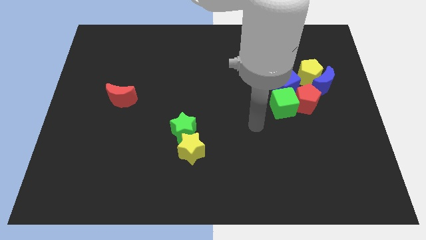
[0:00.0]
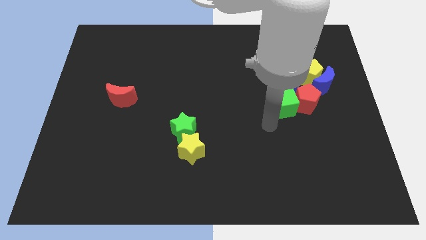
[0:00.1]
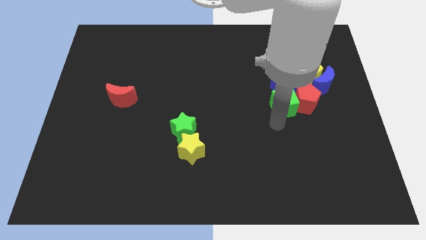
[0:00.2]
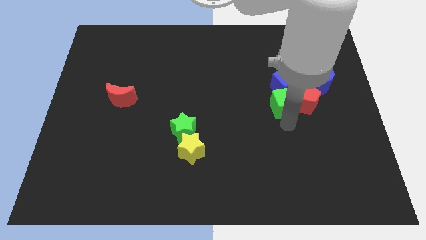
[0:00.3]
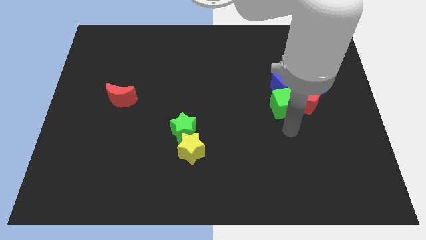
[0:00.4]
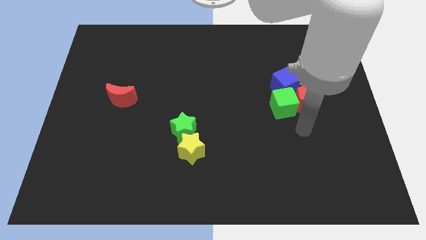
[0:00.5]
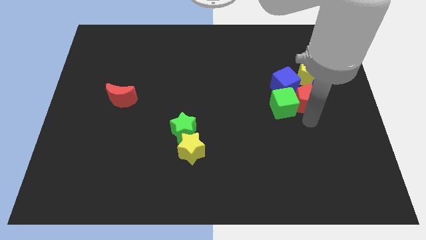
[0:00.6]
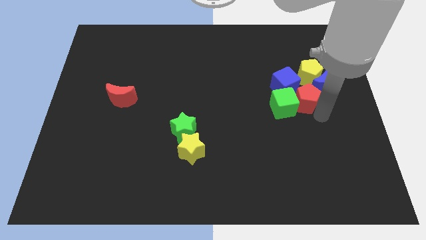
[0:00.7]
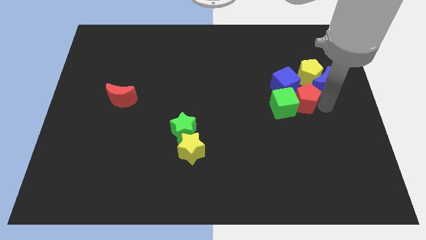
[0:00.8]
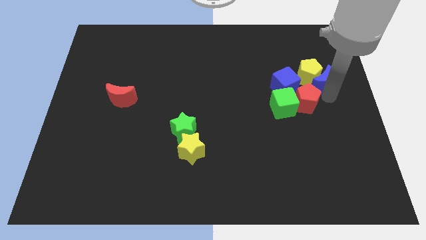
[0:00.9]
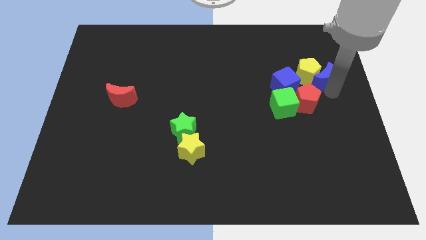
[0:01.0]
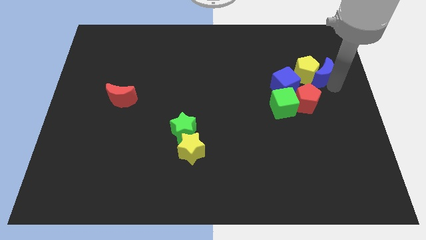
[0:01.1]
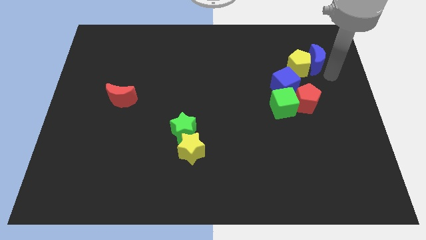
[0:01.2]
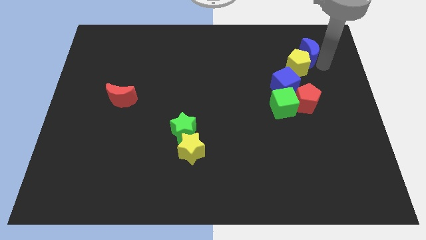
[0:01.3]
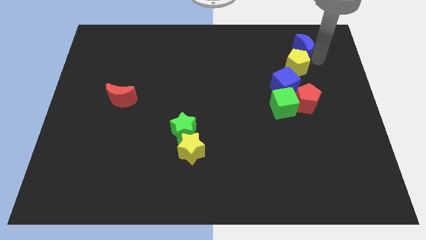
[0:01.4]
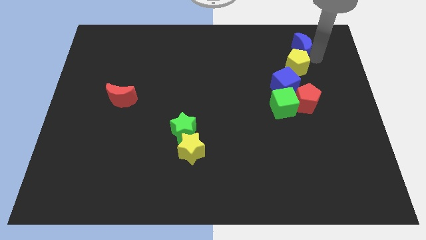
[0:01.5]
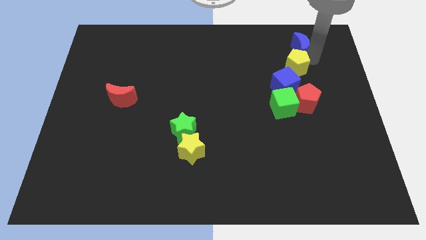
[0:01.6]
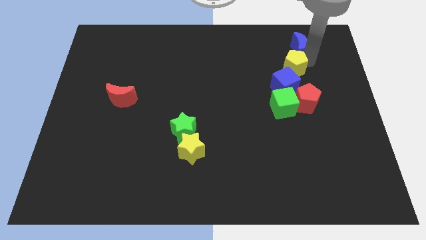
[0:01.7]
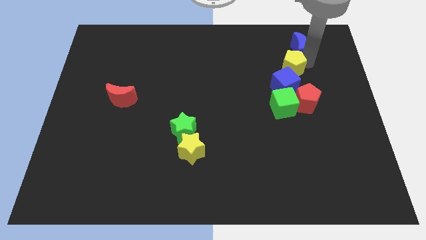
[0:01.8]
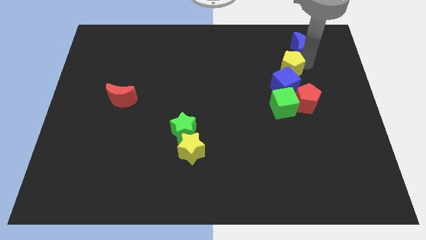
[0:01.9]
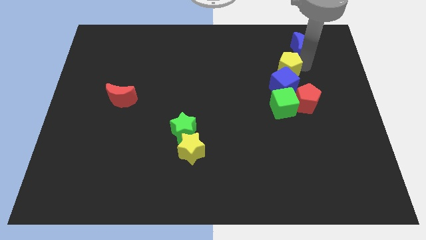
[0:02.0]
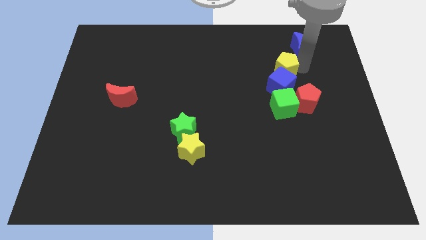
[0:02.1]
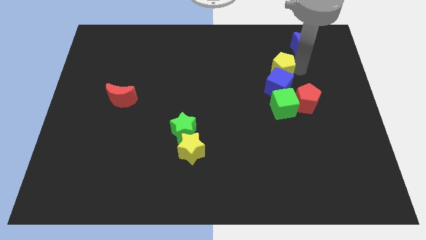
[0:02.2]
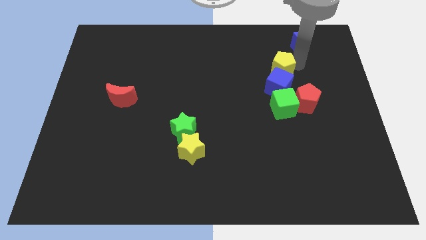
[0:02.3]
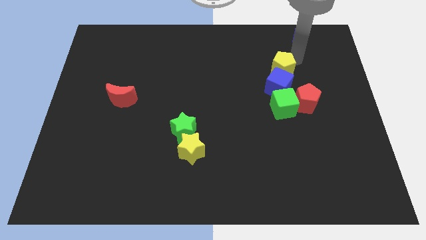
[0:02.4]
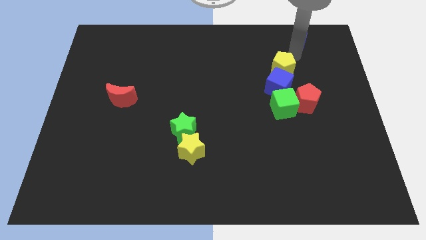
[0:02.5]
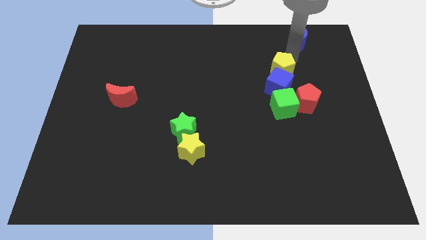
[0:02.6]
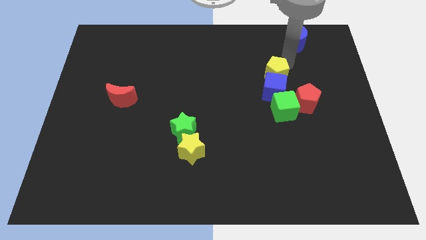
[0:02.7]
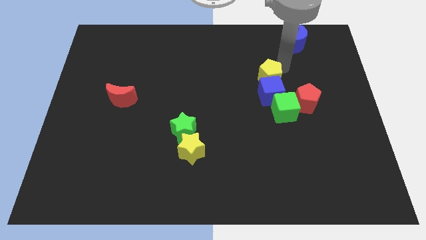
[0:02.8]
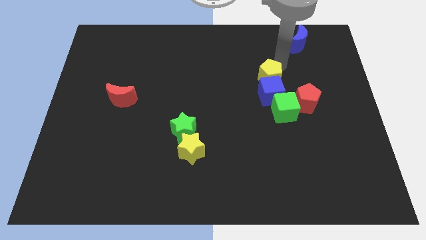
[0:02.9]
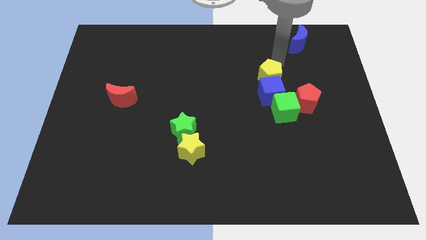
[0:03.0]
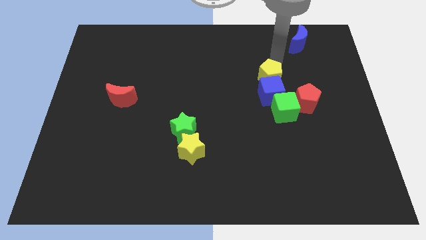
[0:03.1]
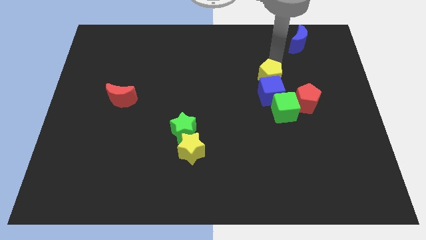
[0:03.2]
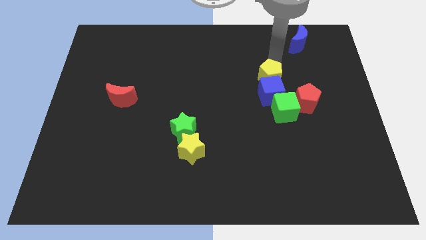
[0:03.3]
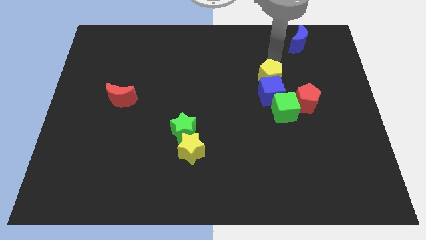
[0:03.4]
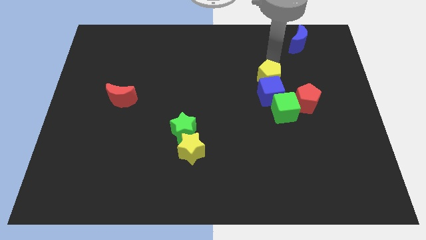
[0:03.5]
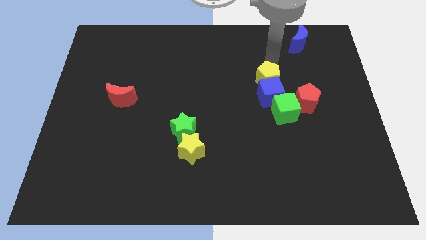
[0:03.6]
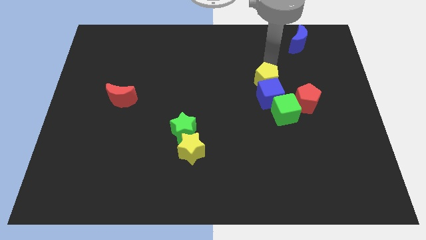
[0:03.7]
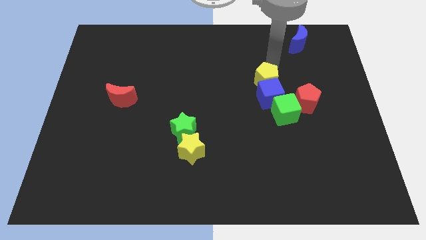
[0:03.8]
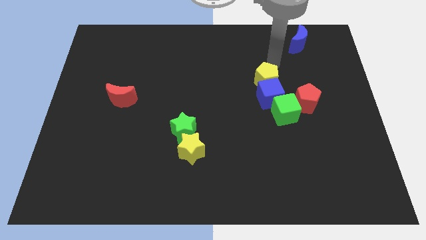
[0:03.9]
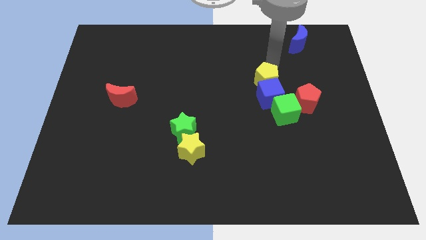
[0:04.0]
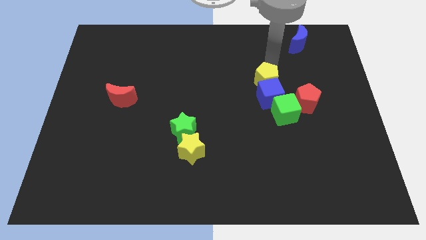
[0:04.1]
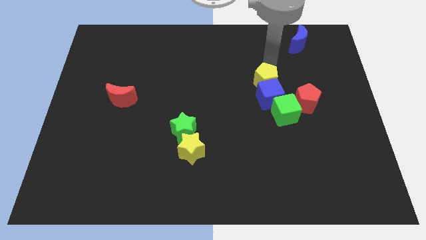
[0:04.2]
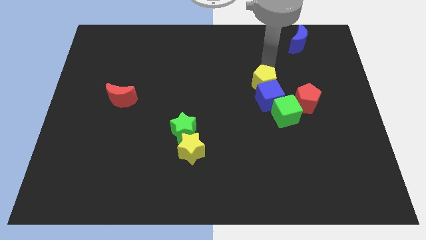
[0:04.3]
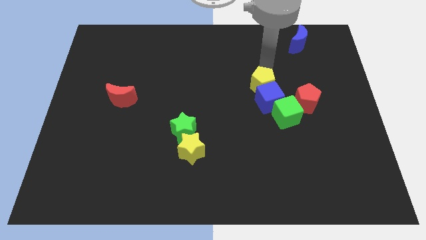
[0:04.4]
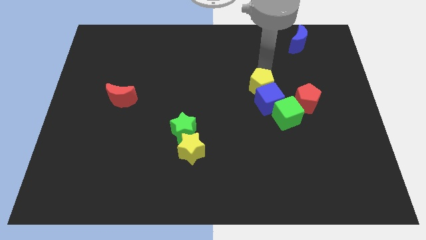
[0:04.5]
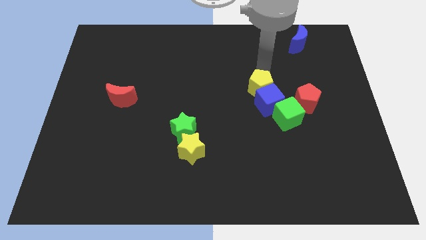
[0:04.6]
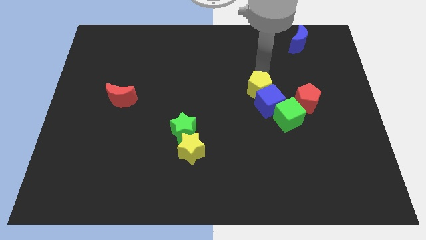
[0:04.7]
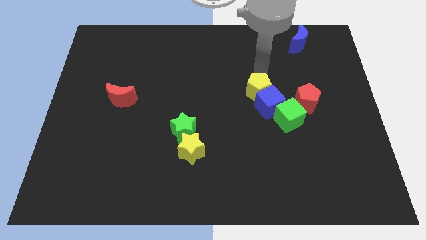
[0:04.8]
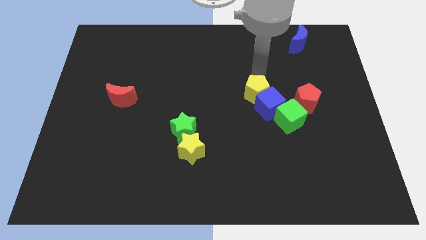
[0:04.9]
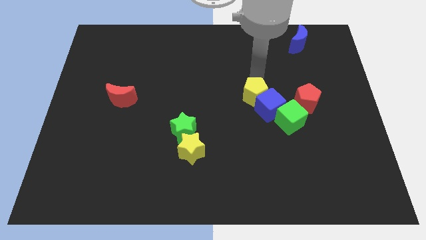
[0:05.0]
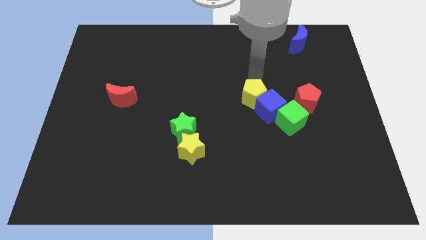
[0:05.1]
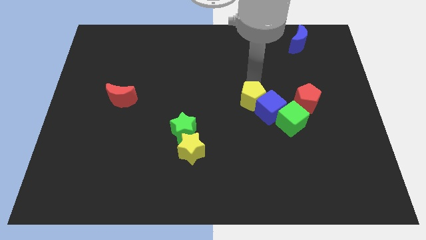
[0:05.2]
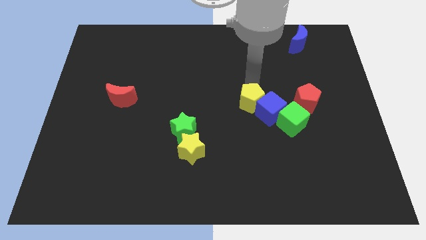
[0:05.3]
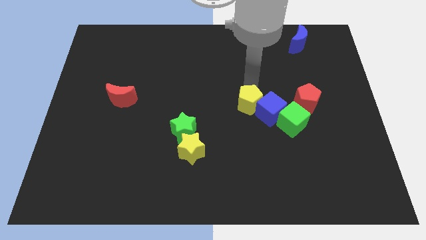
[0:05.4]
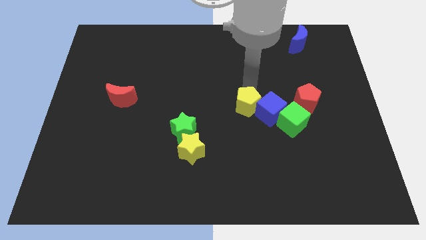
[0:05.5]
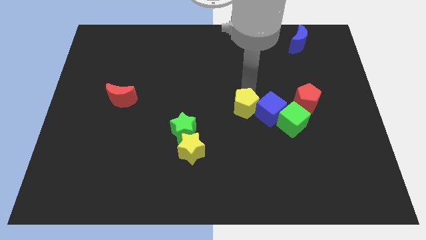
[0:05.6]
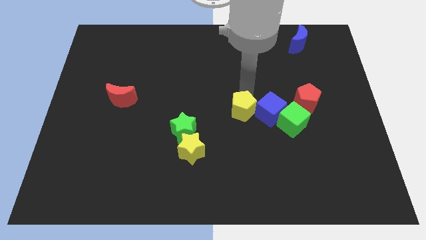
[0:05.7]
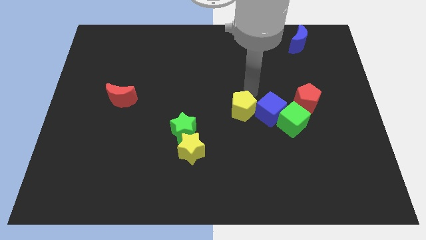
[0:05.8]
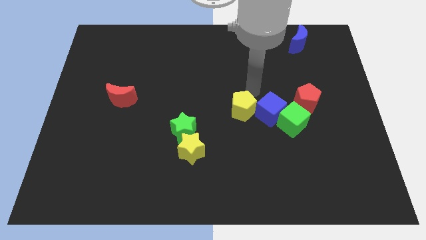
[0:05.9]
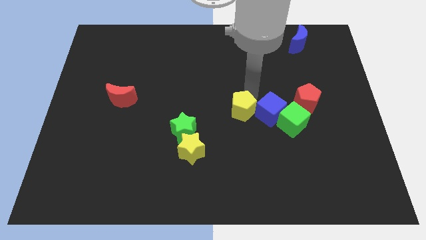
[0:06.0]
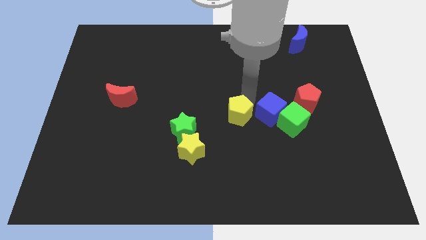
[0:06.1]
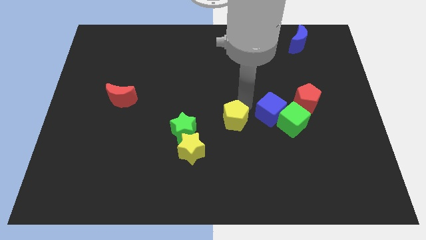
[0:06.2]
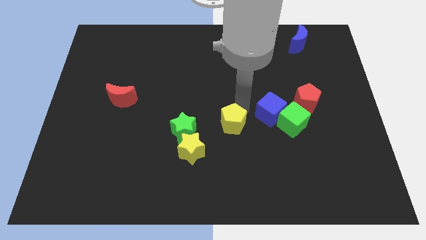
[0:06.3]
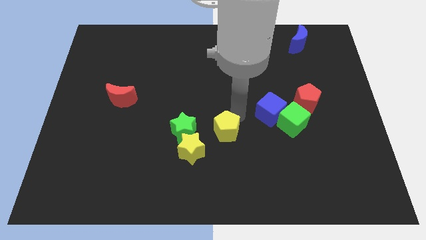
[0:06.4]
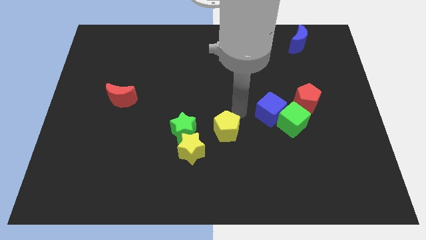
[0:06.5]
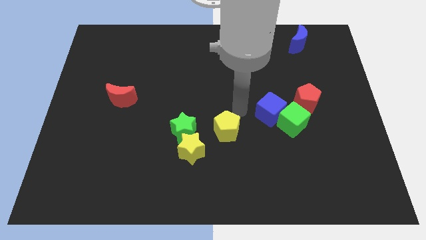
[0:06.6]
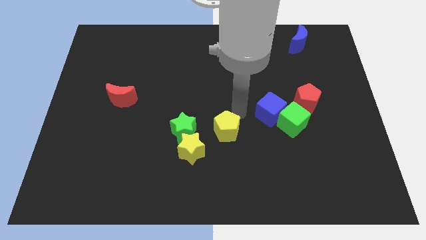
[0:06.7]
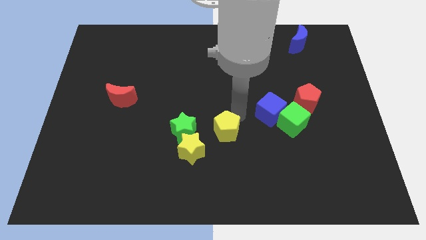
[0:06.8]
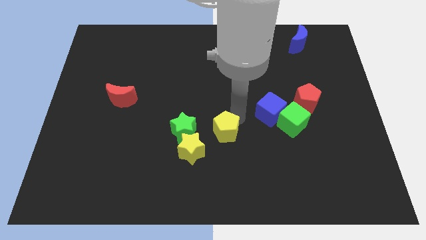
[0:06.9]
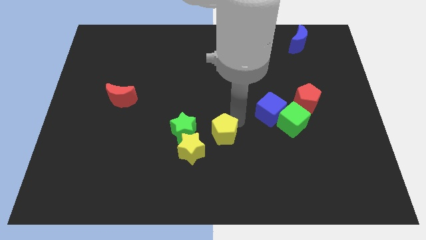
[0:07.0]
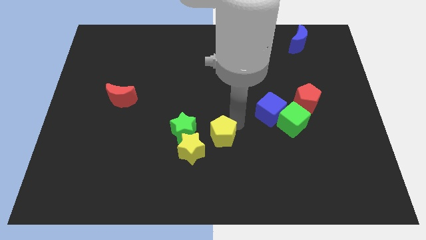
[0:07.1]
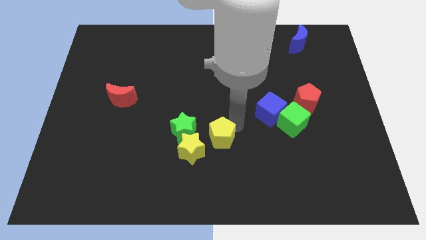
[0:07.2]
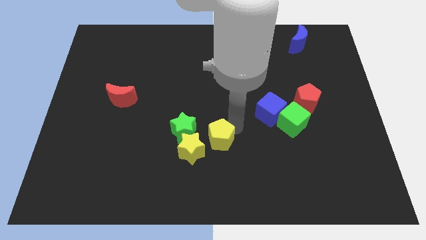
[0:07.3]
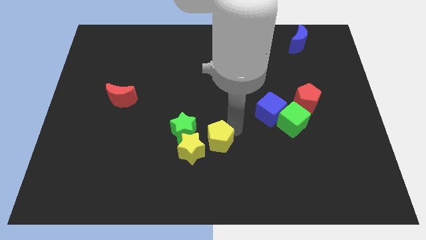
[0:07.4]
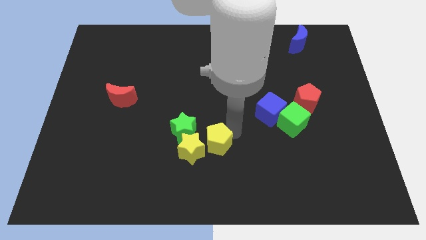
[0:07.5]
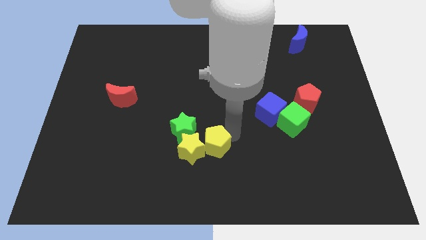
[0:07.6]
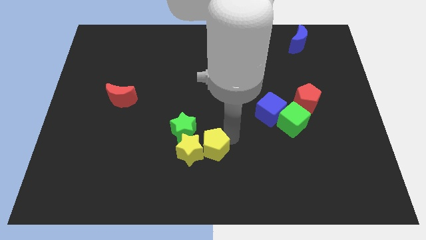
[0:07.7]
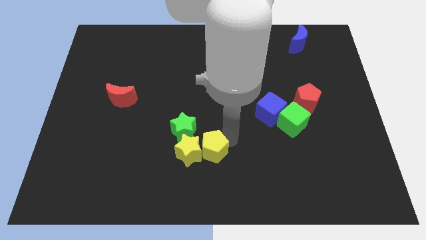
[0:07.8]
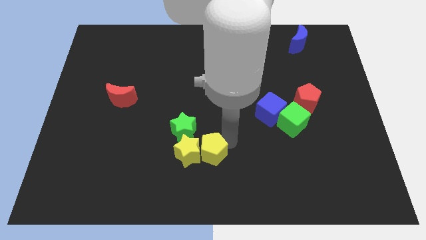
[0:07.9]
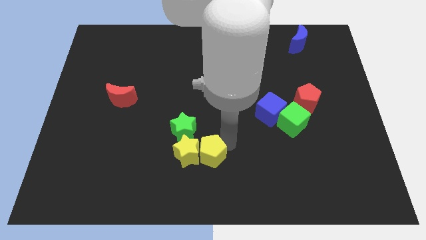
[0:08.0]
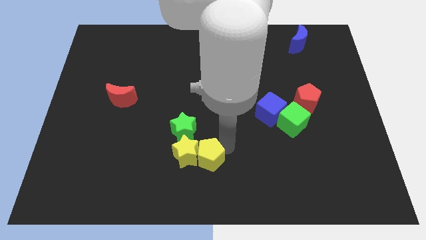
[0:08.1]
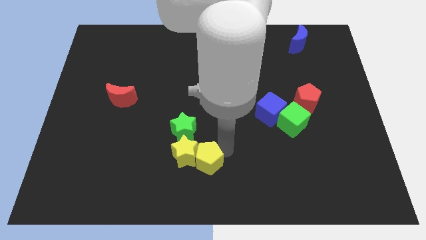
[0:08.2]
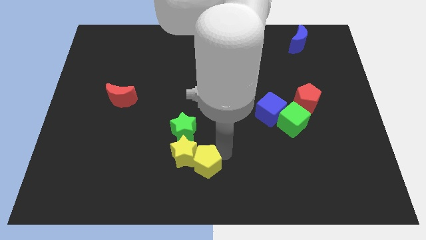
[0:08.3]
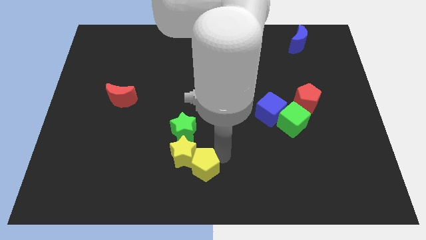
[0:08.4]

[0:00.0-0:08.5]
put the yellow pentagon below the green star
